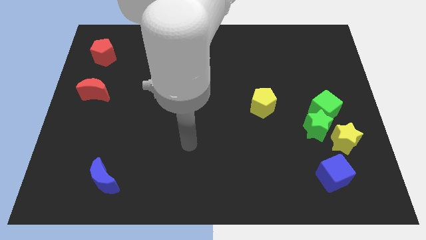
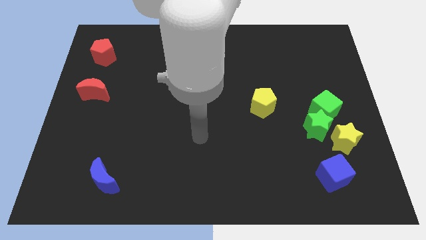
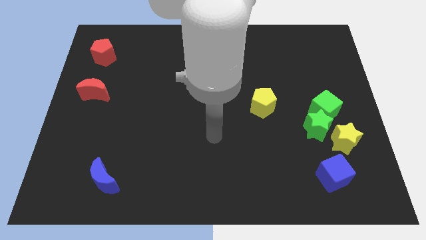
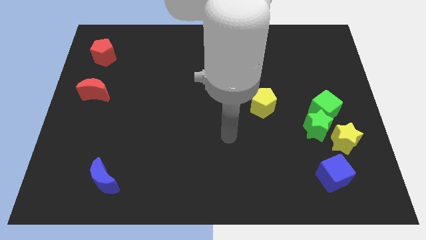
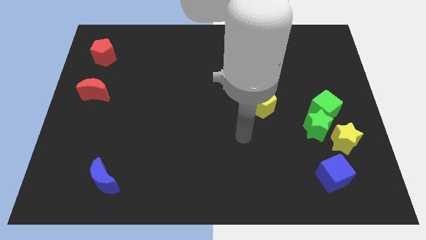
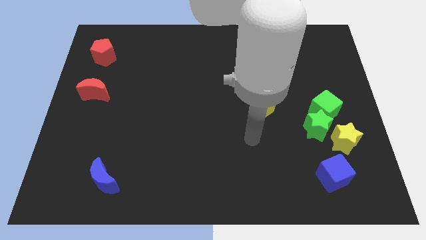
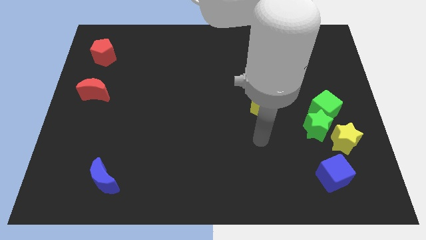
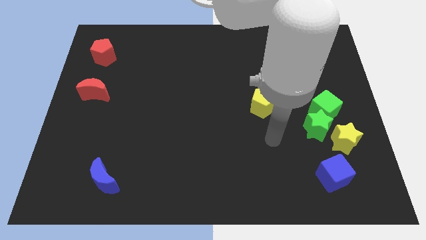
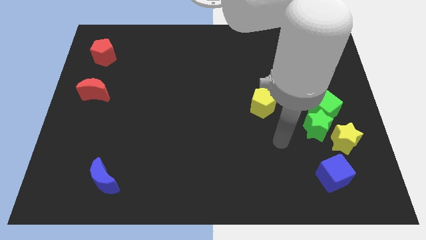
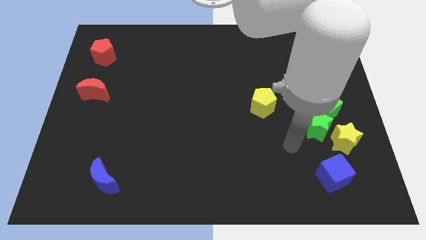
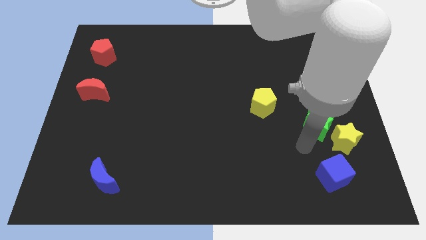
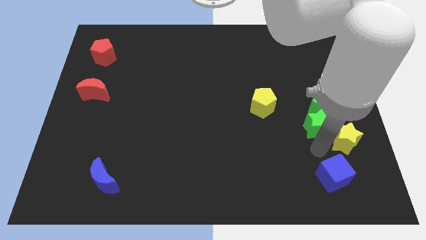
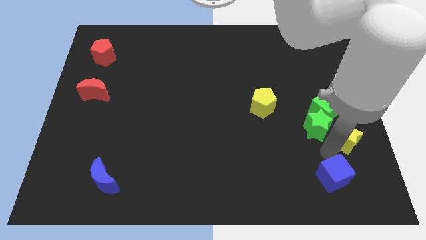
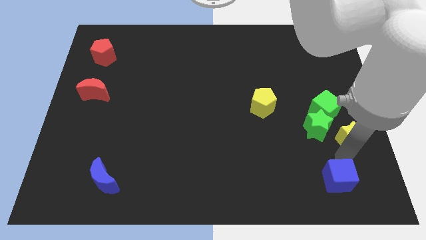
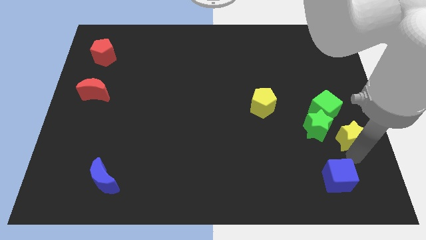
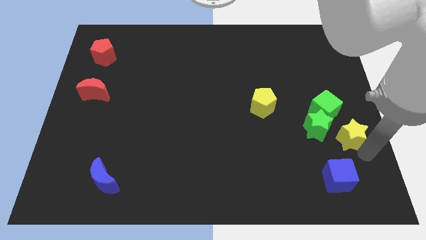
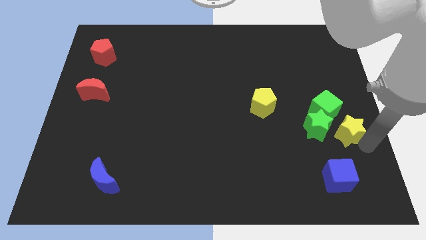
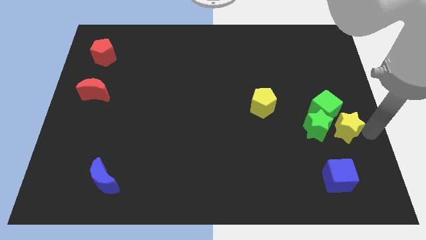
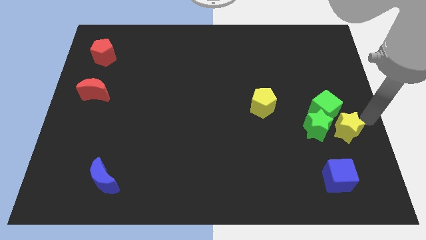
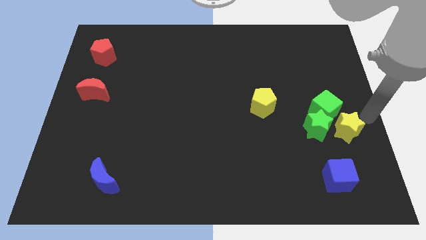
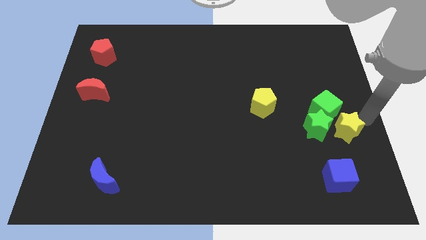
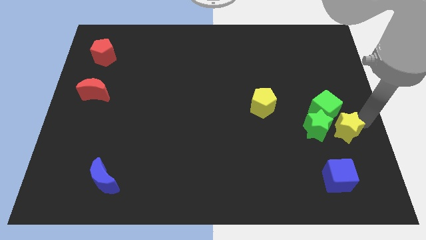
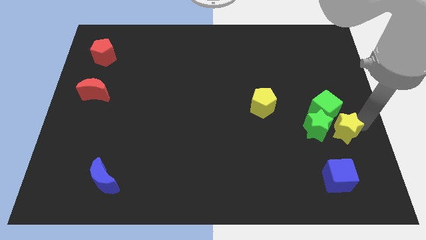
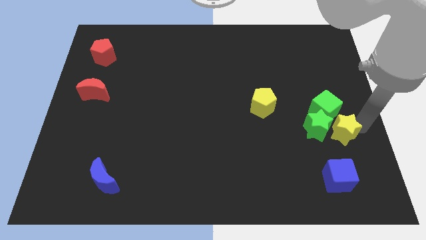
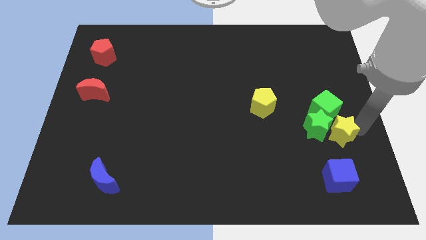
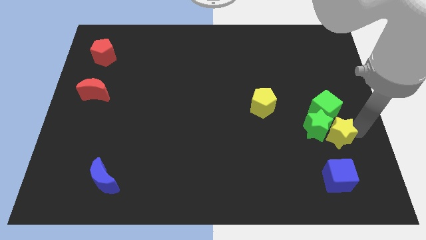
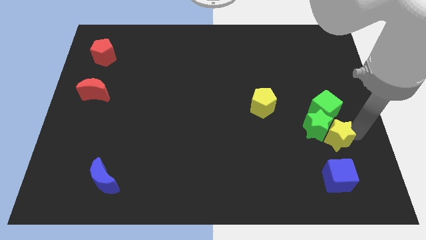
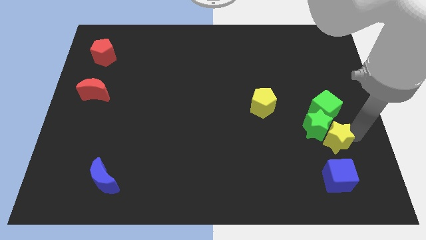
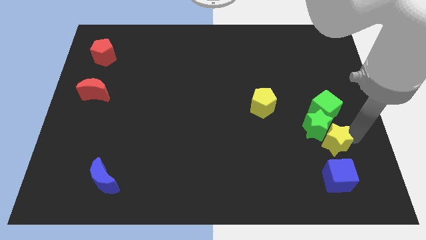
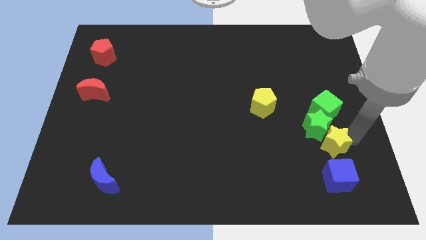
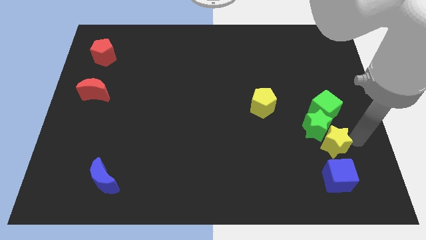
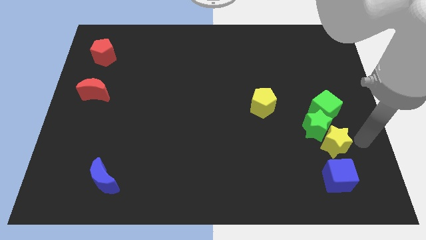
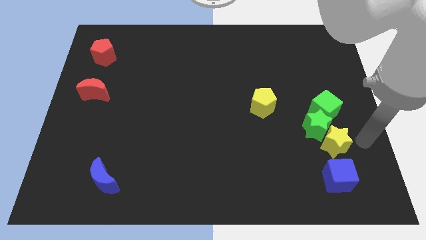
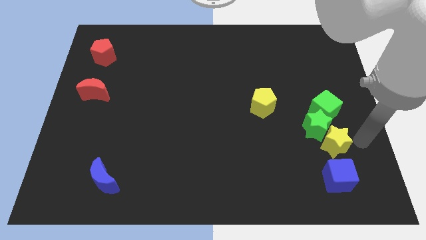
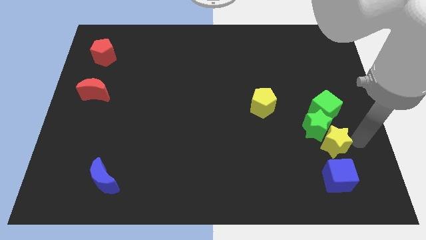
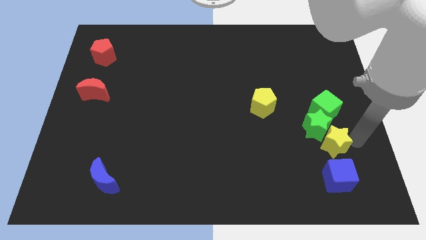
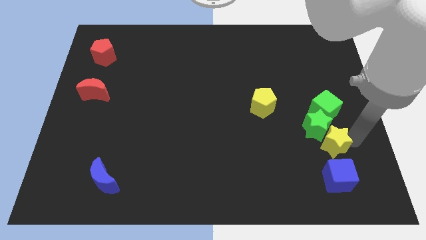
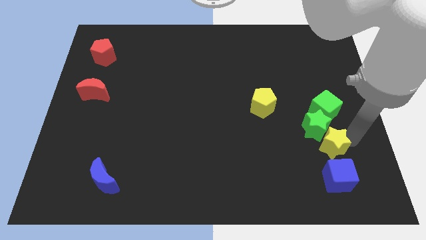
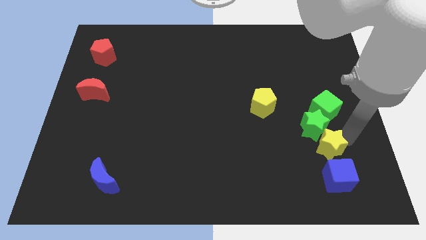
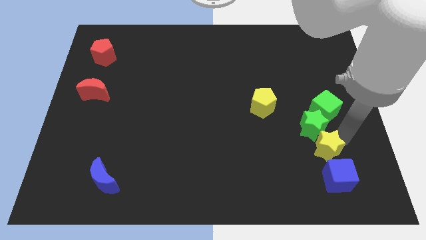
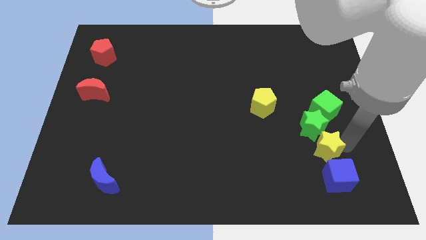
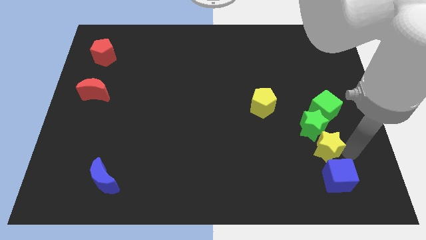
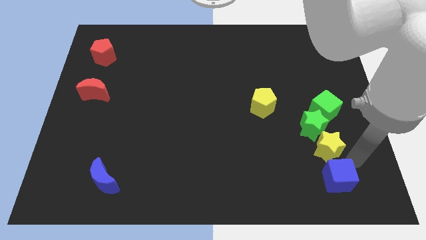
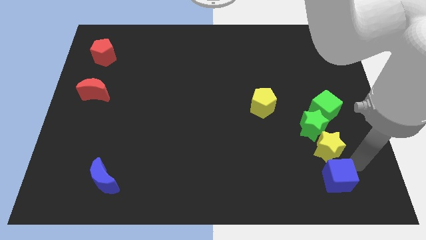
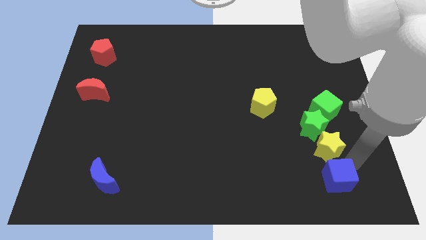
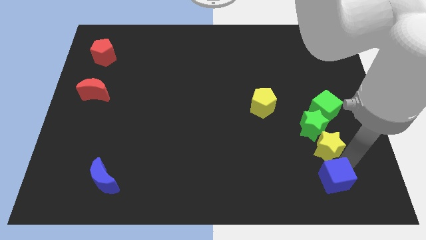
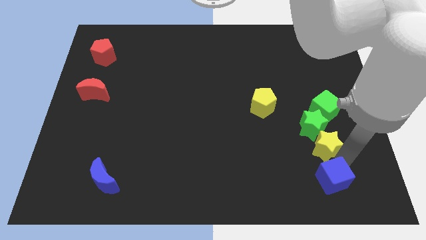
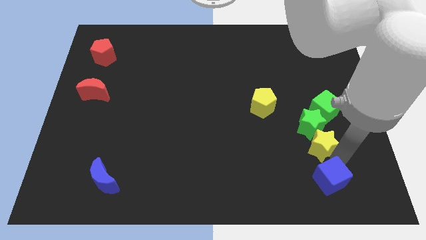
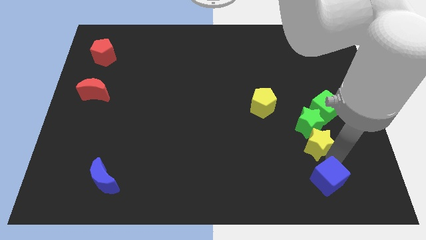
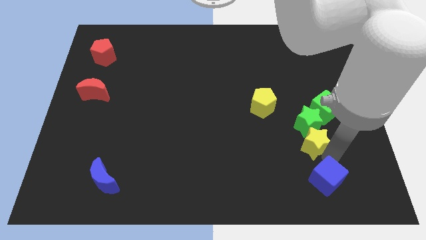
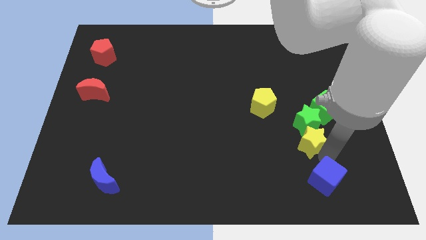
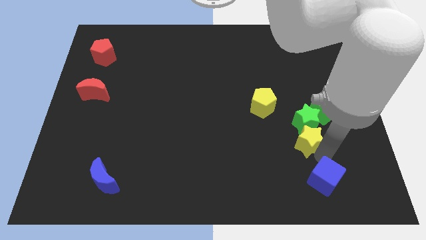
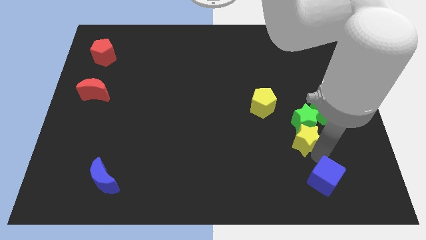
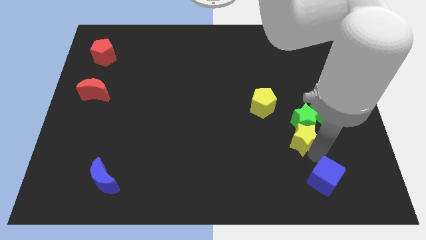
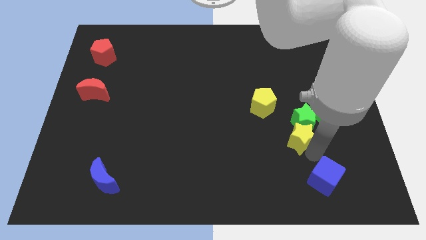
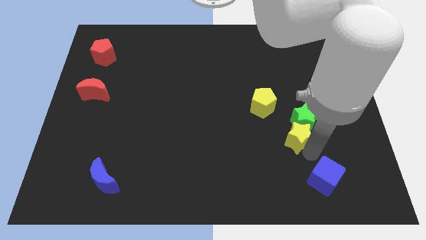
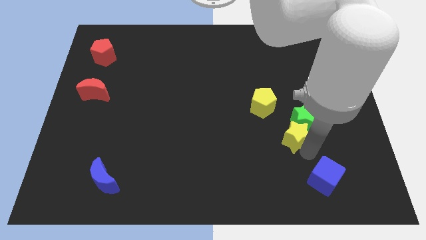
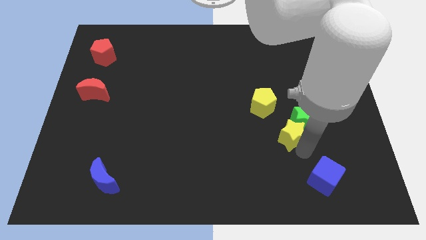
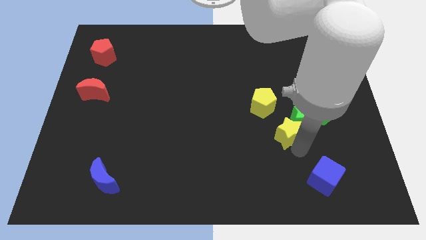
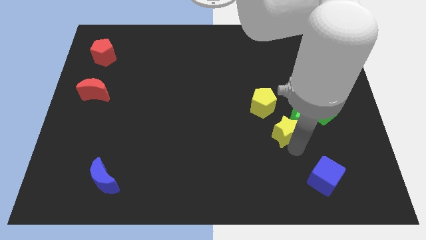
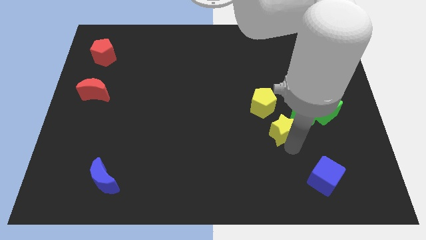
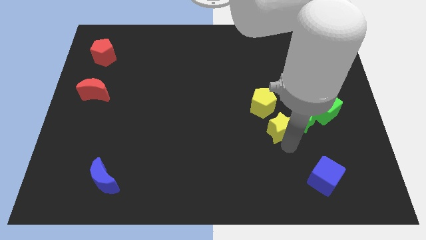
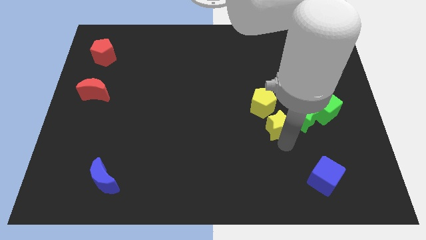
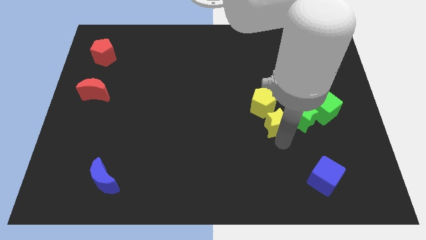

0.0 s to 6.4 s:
move the yellow star to the left side of the green cube

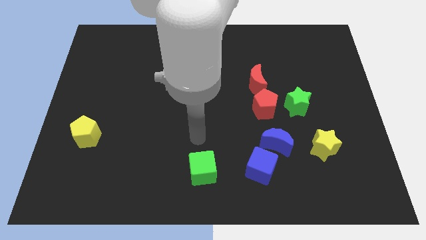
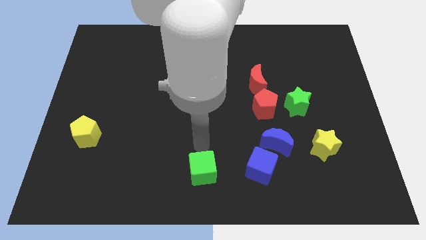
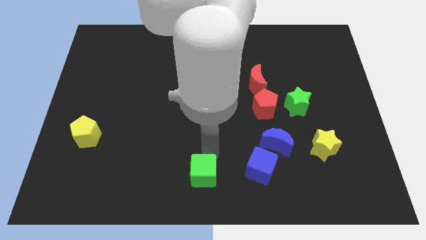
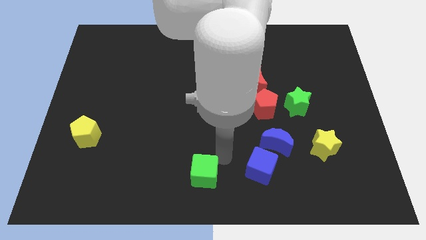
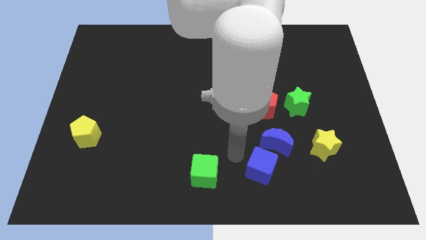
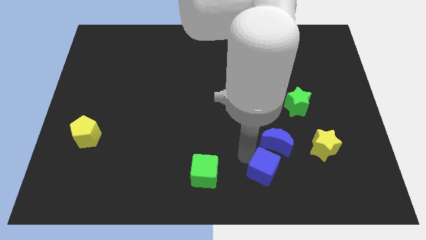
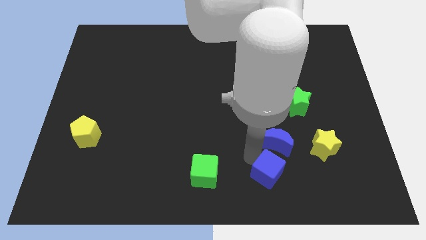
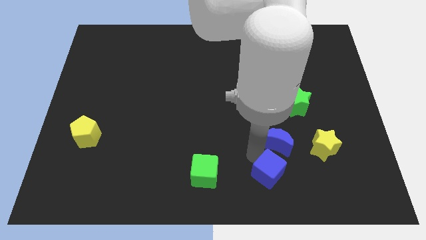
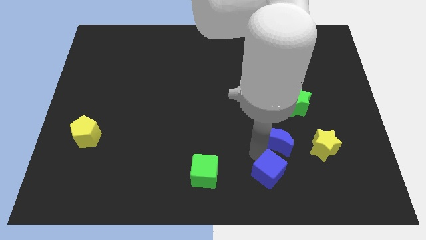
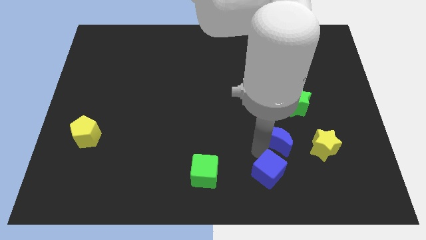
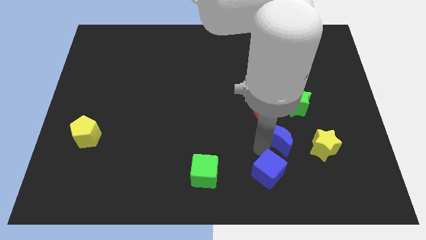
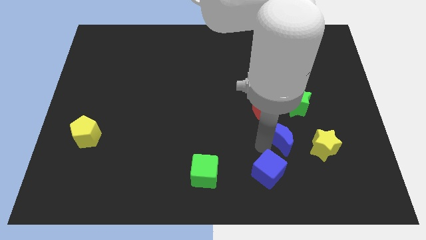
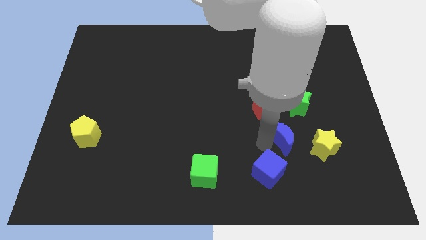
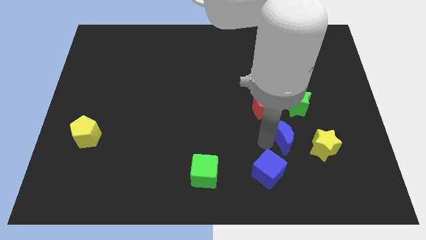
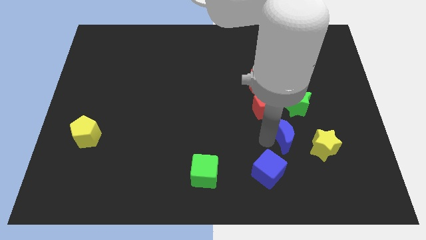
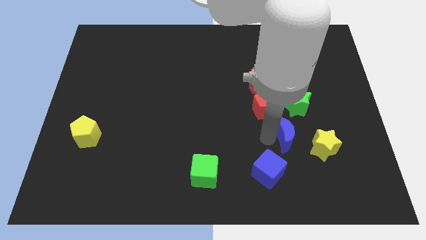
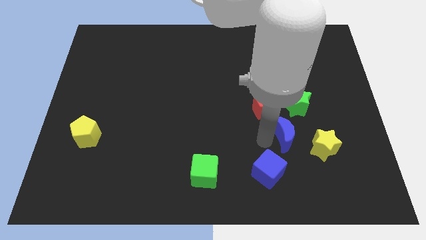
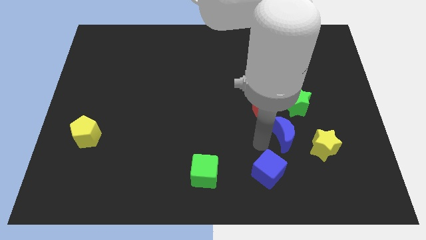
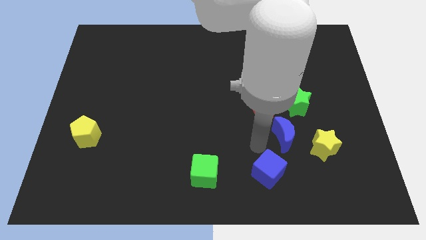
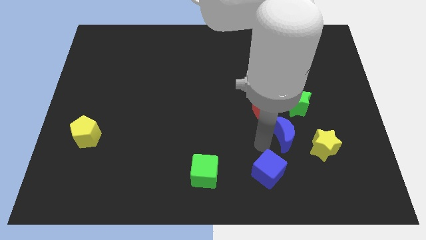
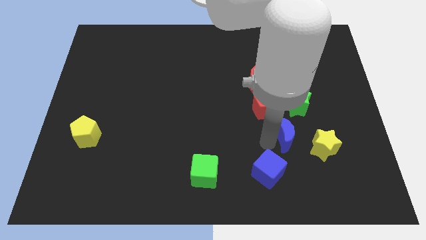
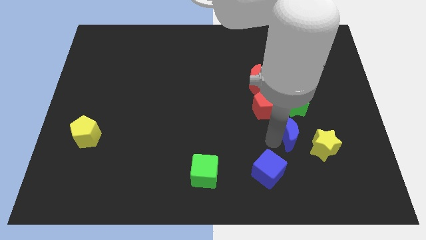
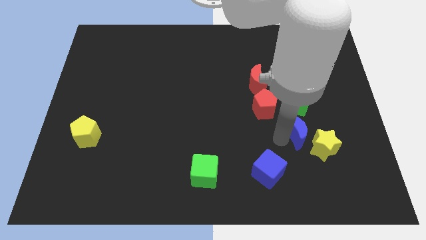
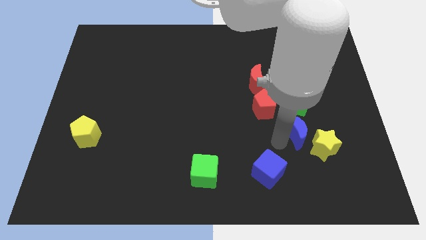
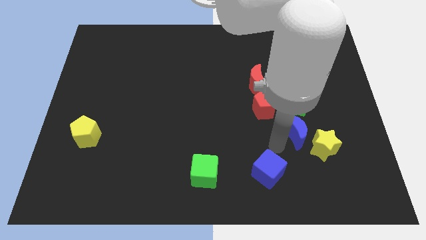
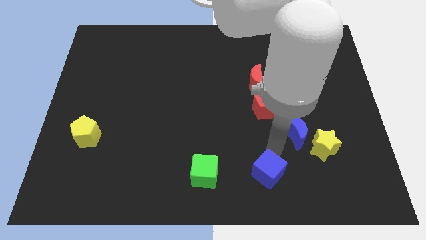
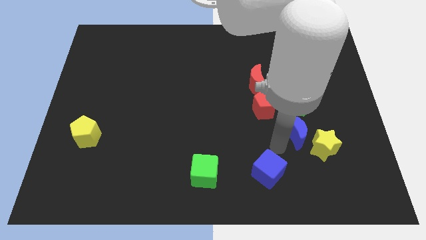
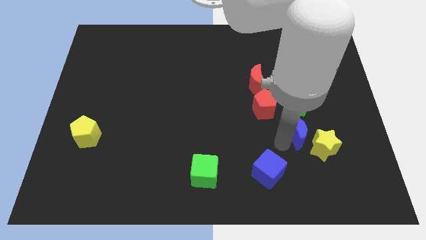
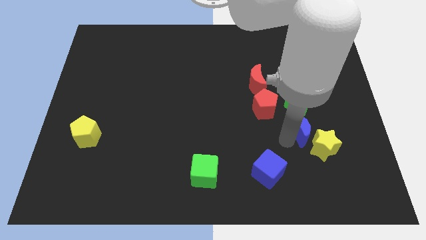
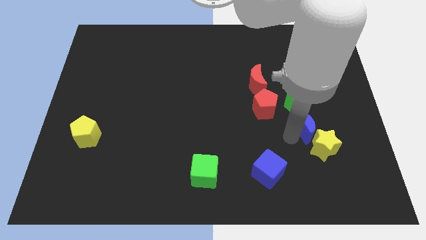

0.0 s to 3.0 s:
slide the blue moon to the top side of the yellow star
